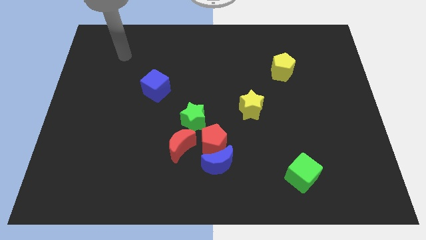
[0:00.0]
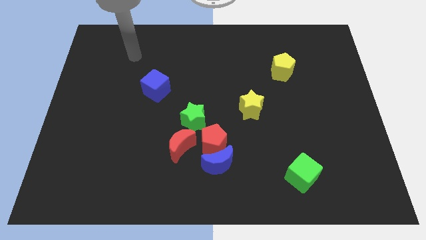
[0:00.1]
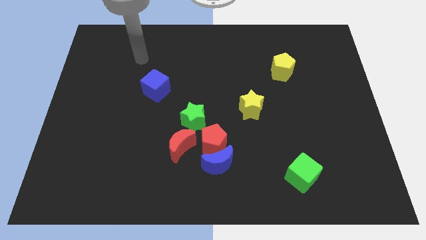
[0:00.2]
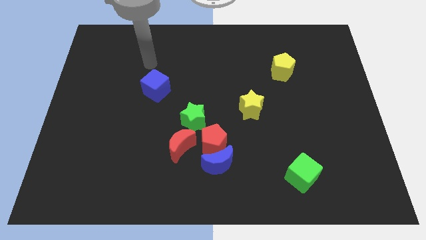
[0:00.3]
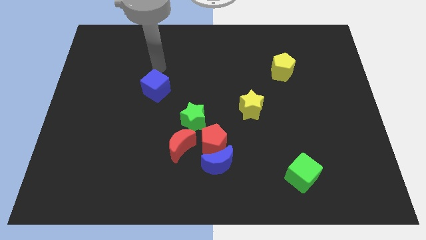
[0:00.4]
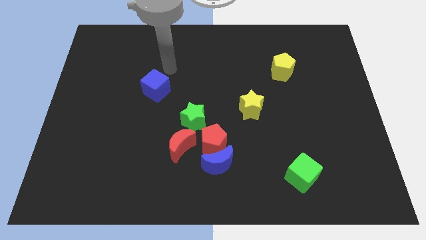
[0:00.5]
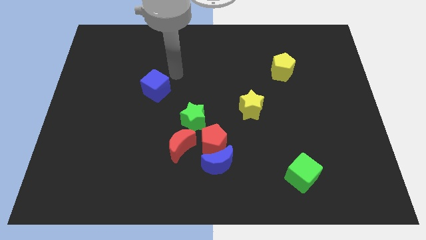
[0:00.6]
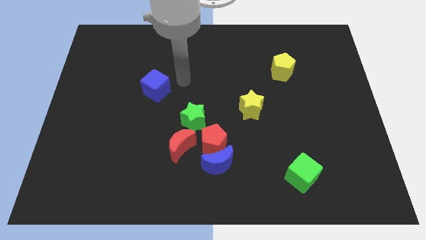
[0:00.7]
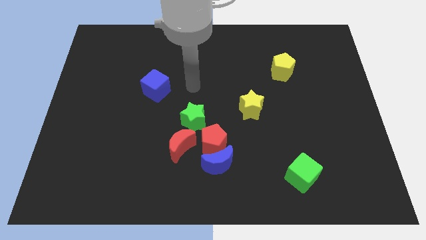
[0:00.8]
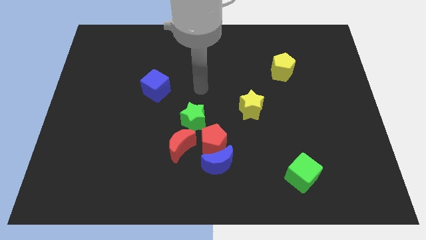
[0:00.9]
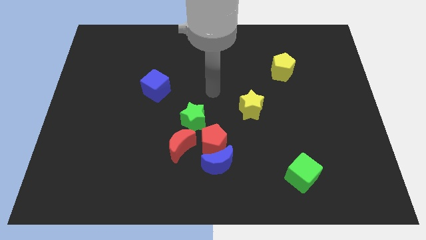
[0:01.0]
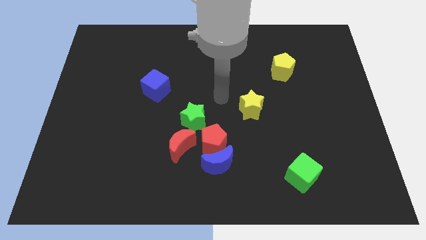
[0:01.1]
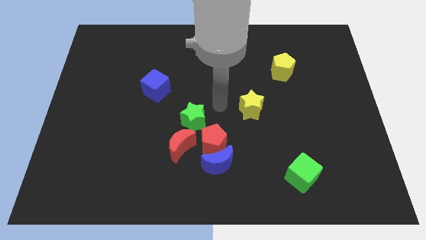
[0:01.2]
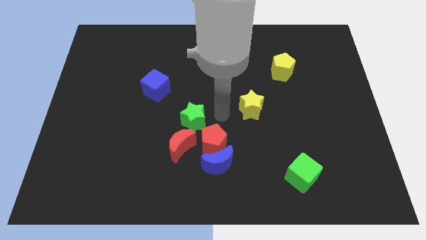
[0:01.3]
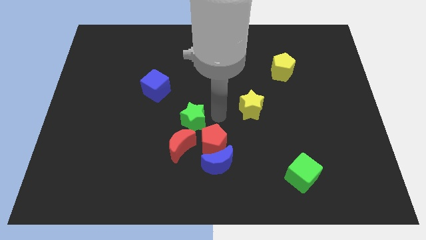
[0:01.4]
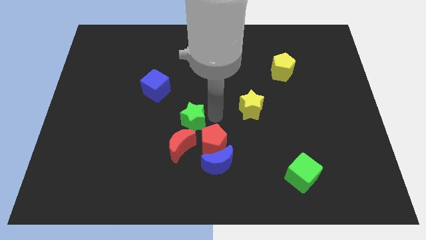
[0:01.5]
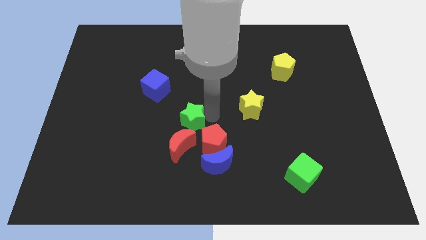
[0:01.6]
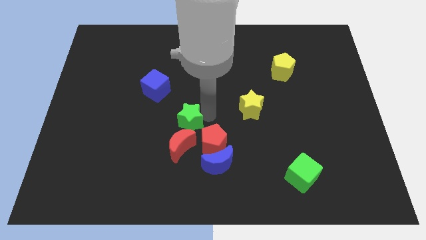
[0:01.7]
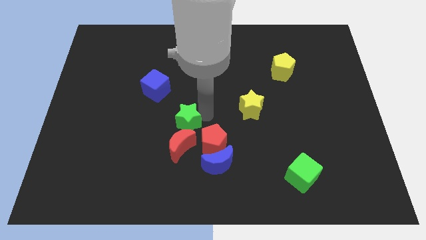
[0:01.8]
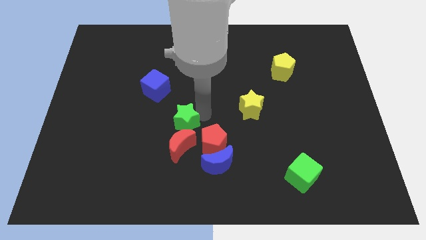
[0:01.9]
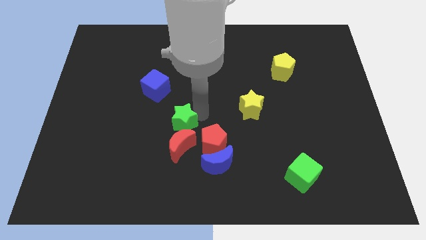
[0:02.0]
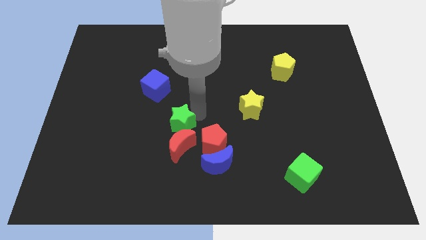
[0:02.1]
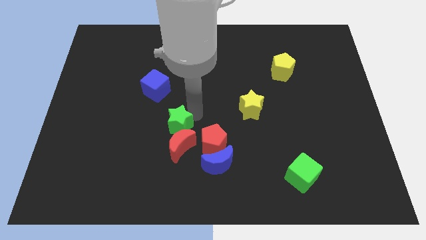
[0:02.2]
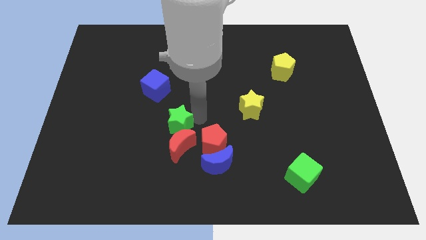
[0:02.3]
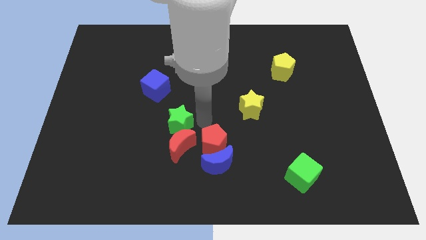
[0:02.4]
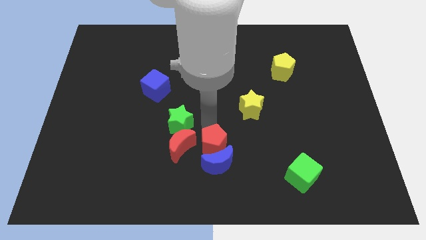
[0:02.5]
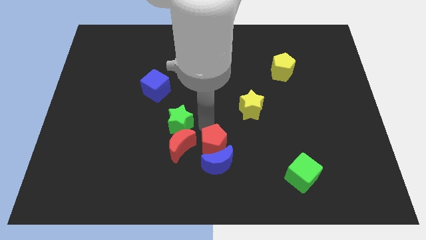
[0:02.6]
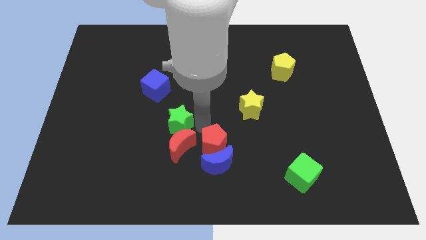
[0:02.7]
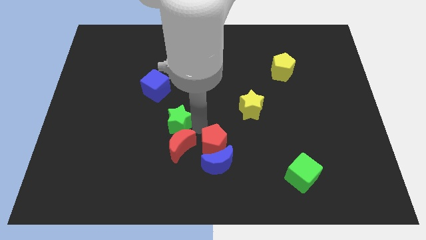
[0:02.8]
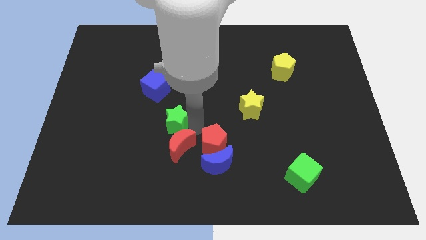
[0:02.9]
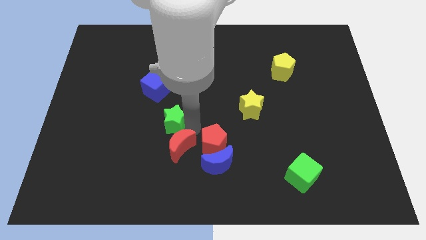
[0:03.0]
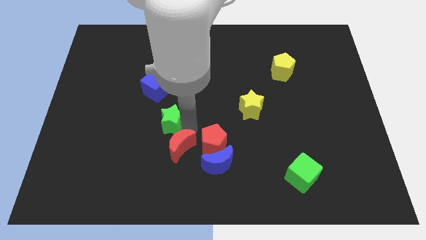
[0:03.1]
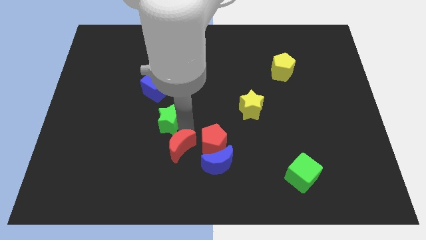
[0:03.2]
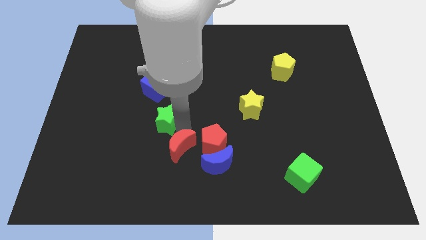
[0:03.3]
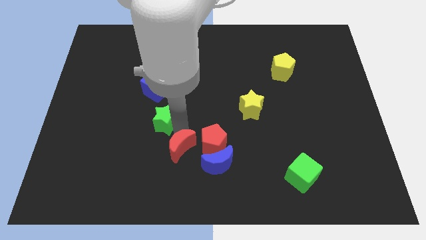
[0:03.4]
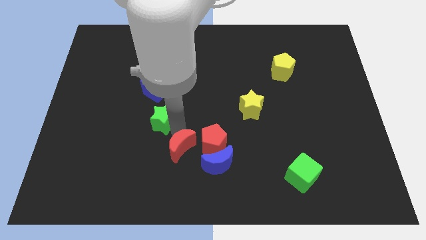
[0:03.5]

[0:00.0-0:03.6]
push the green star a little to the left

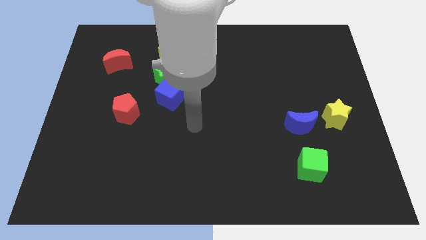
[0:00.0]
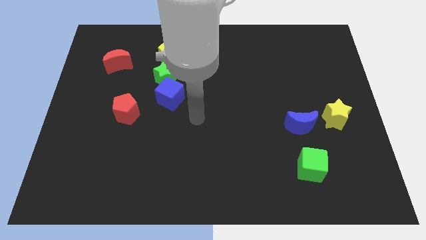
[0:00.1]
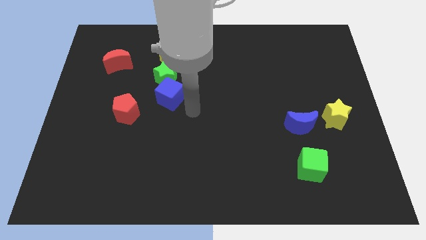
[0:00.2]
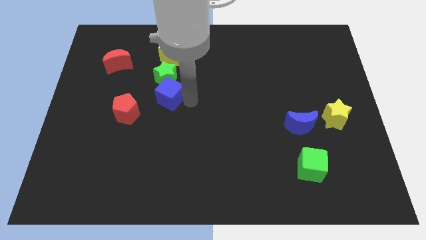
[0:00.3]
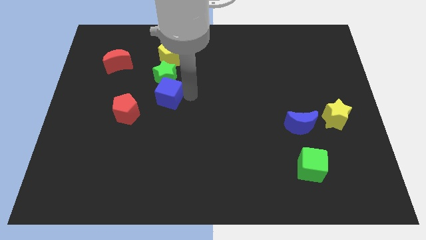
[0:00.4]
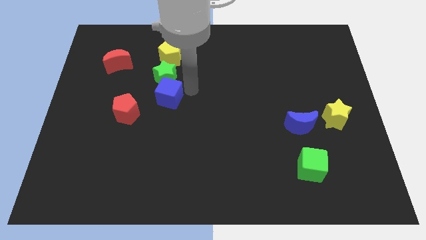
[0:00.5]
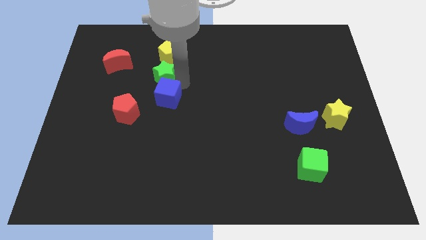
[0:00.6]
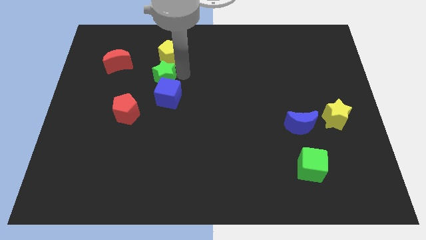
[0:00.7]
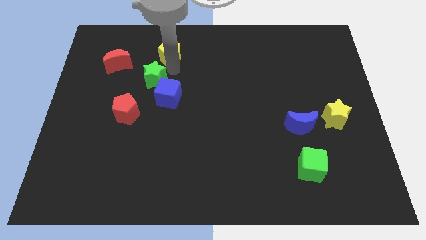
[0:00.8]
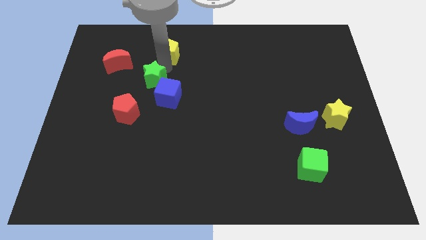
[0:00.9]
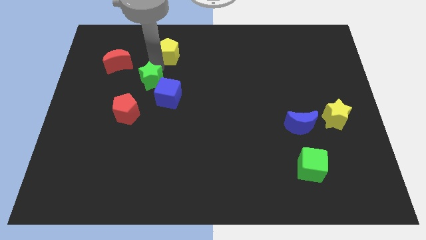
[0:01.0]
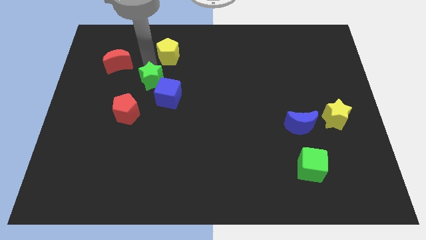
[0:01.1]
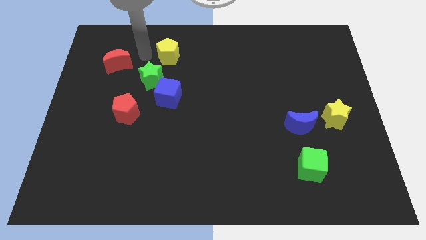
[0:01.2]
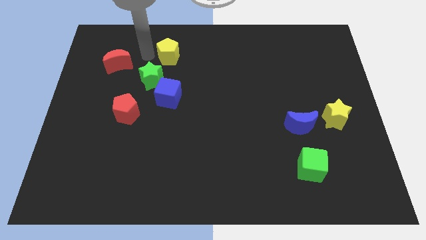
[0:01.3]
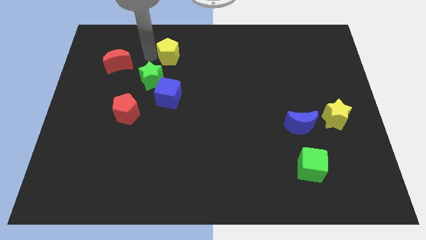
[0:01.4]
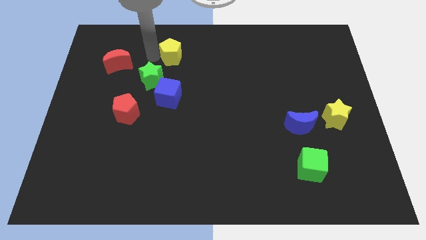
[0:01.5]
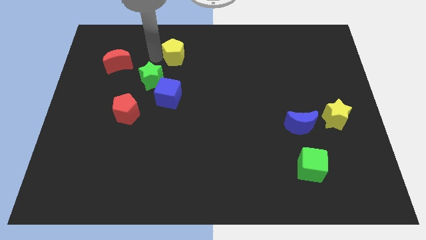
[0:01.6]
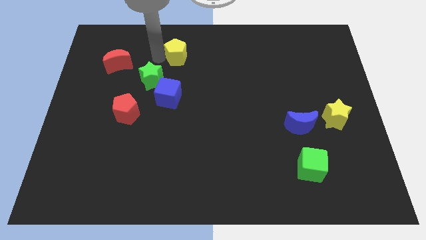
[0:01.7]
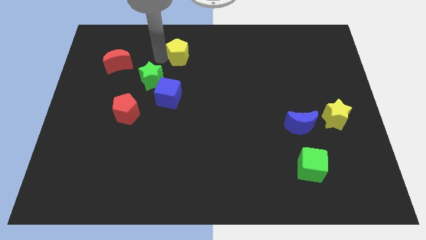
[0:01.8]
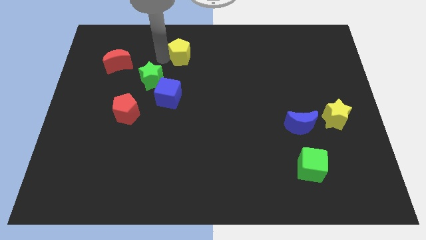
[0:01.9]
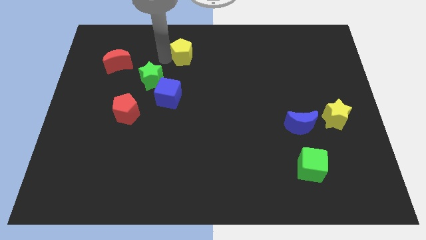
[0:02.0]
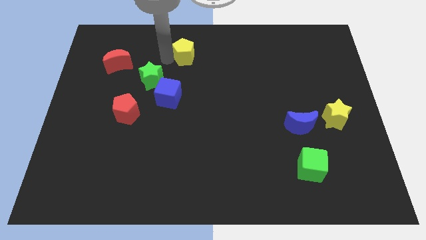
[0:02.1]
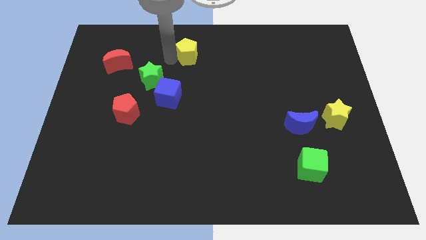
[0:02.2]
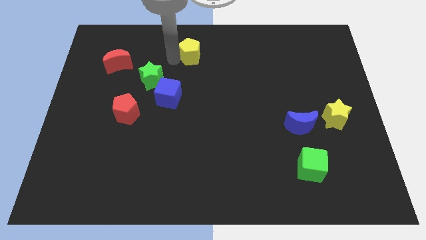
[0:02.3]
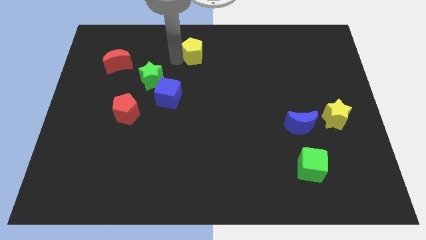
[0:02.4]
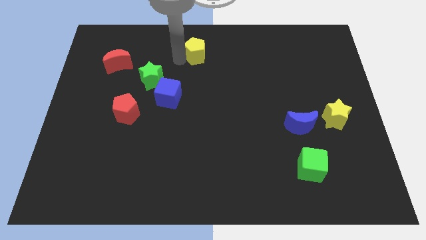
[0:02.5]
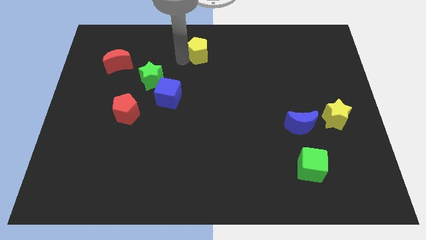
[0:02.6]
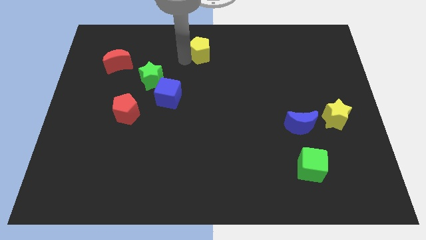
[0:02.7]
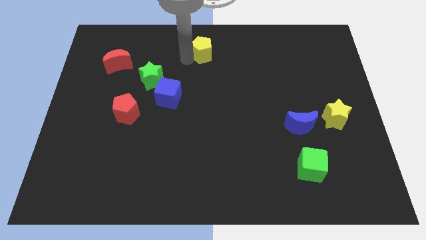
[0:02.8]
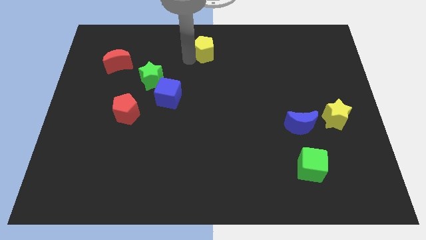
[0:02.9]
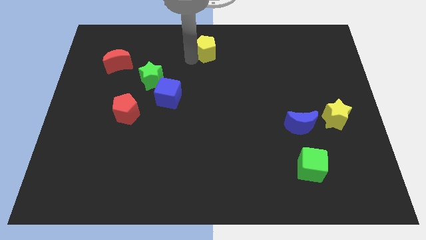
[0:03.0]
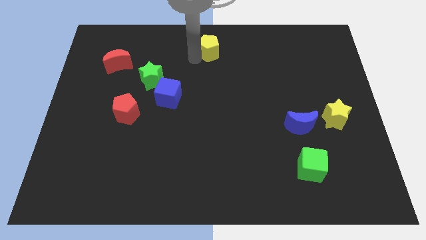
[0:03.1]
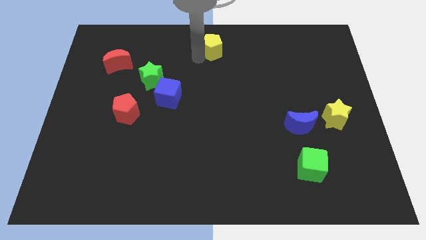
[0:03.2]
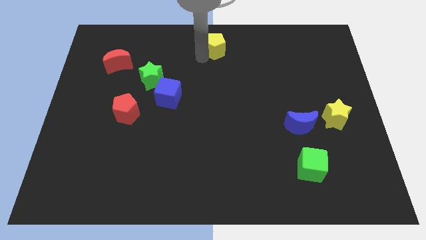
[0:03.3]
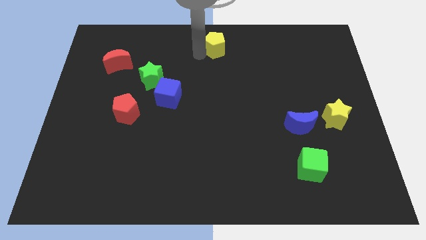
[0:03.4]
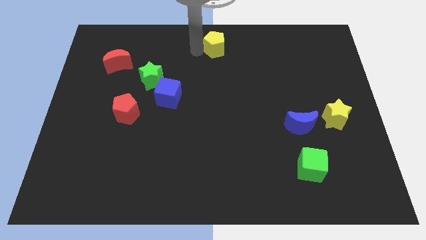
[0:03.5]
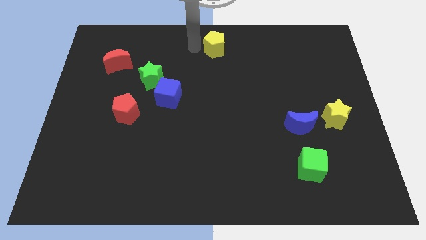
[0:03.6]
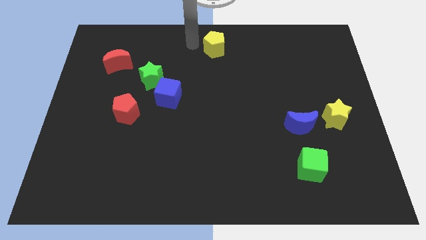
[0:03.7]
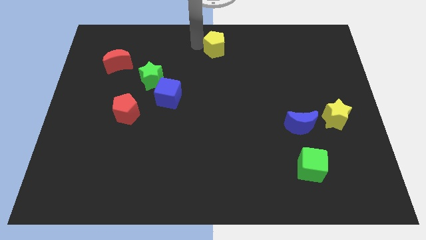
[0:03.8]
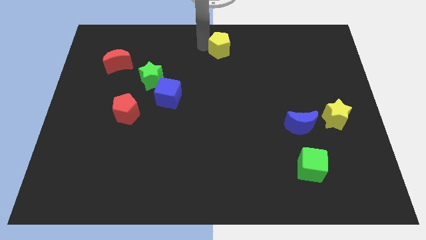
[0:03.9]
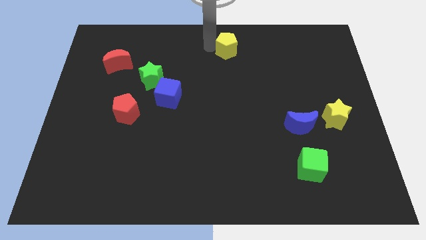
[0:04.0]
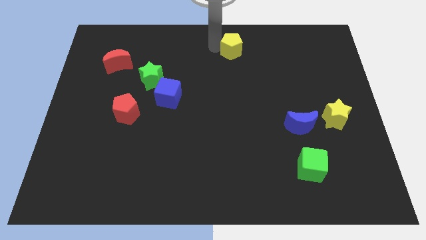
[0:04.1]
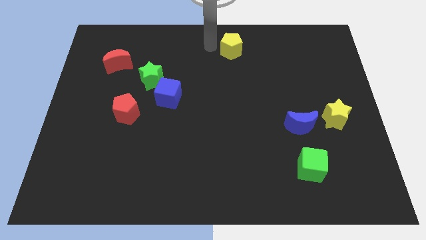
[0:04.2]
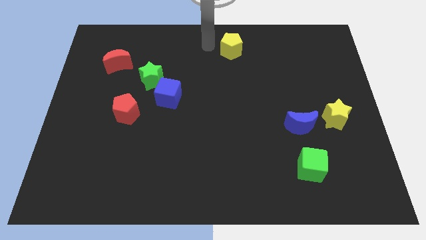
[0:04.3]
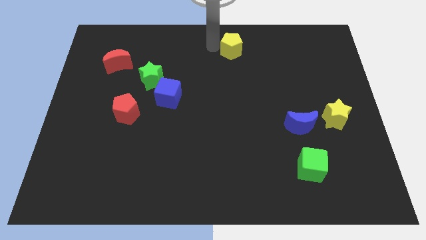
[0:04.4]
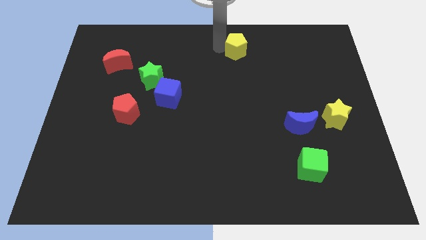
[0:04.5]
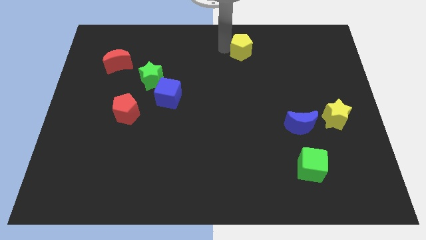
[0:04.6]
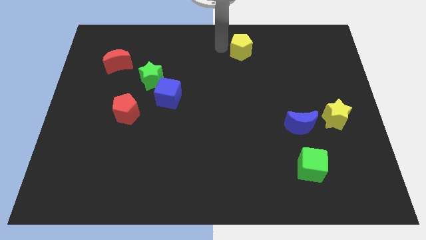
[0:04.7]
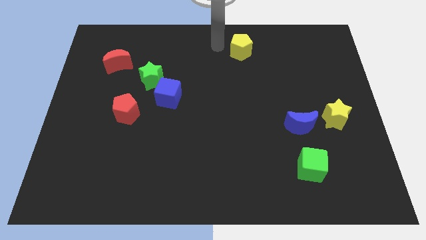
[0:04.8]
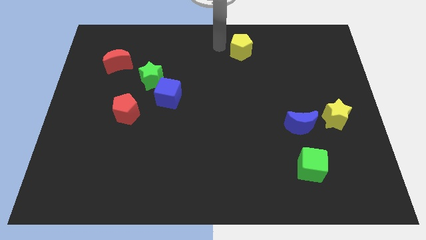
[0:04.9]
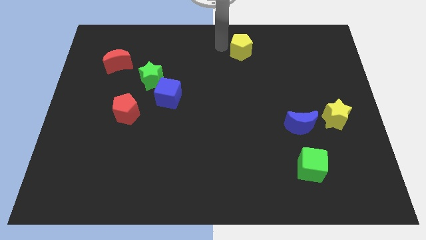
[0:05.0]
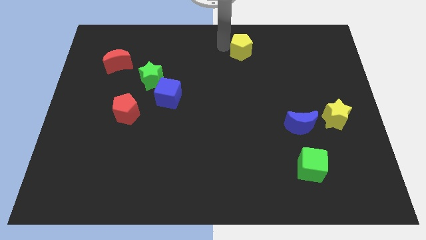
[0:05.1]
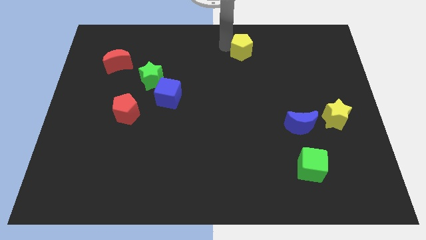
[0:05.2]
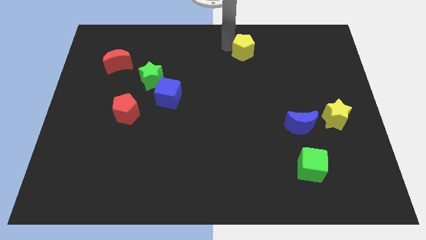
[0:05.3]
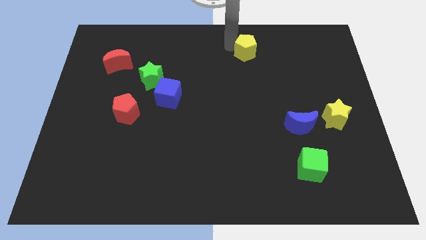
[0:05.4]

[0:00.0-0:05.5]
move the yellow pentagon right
